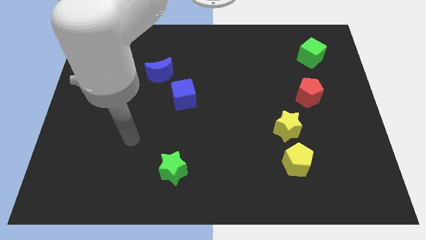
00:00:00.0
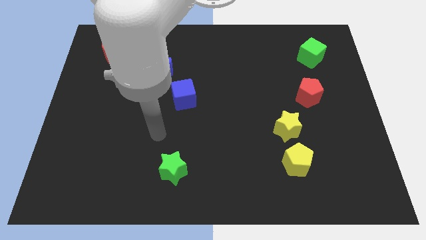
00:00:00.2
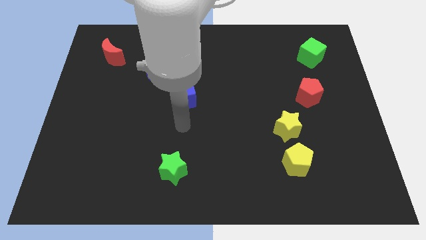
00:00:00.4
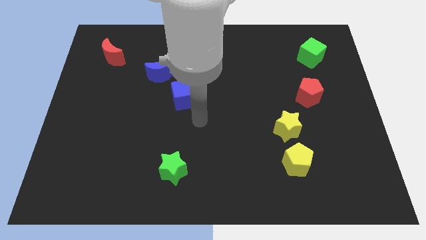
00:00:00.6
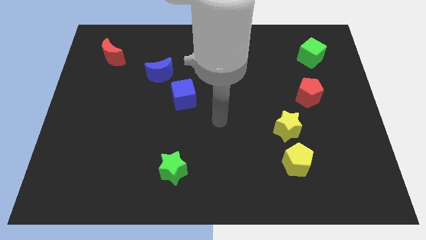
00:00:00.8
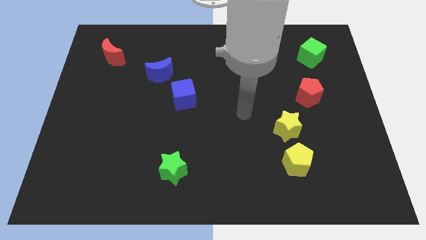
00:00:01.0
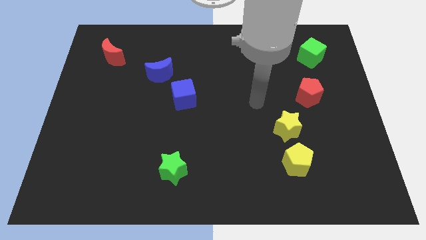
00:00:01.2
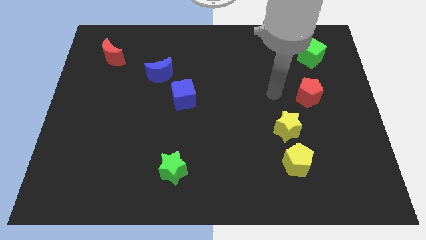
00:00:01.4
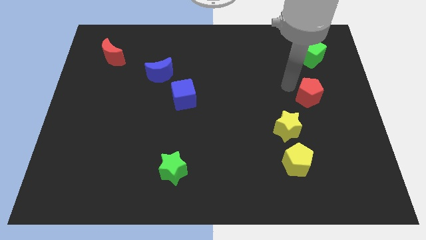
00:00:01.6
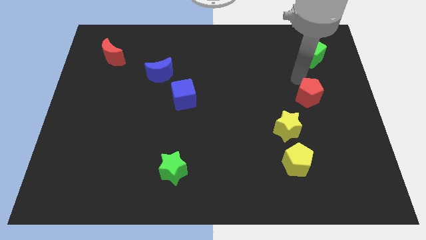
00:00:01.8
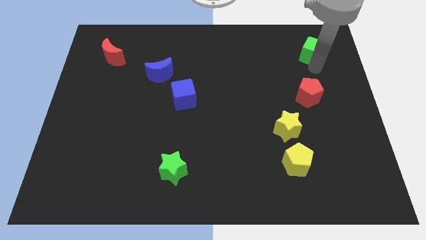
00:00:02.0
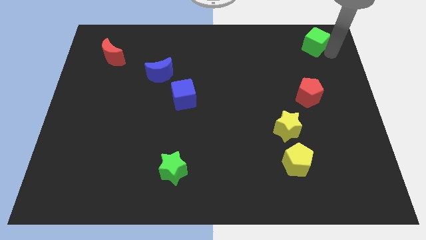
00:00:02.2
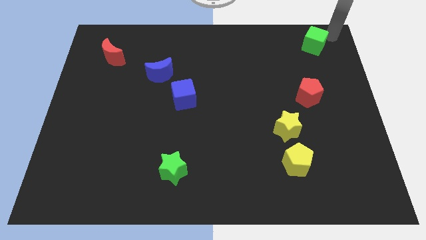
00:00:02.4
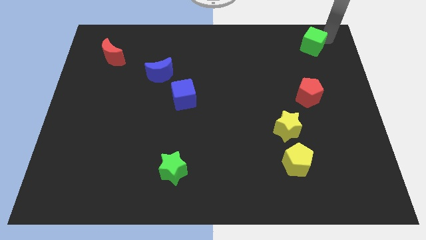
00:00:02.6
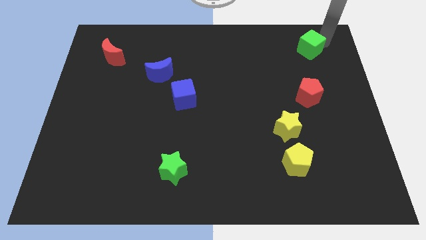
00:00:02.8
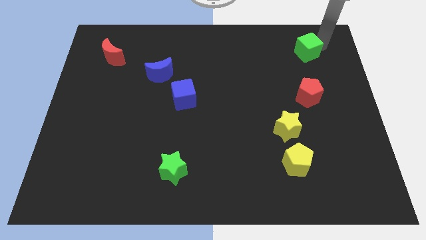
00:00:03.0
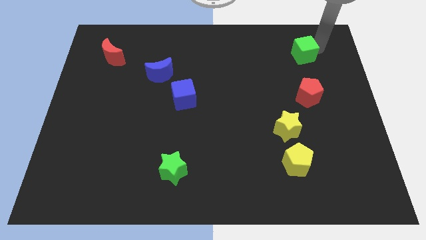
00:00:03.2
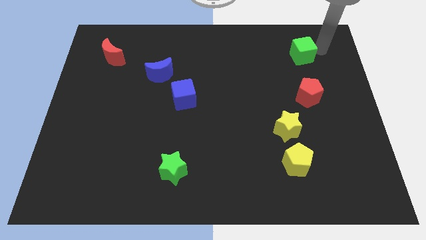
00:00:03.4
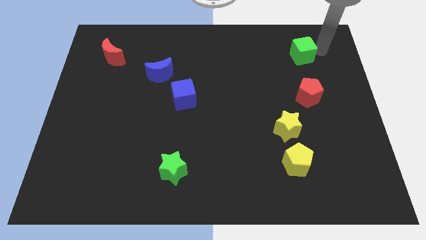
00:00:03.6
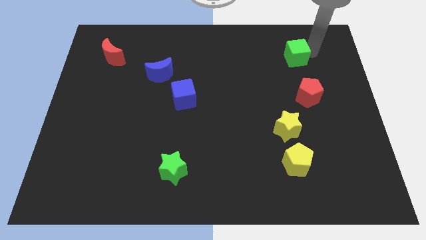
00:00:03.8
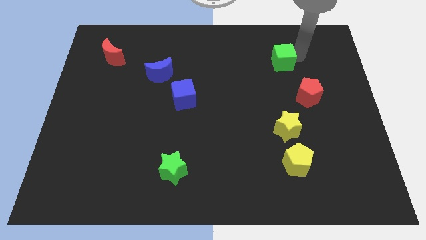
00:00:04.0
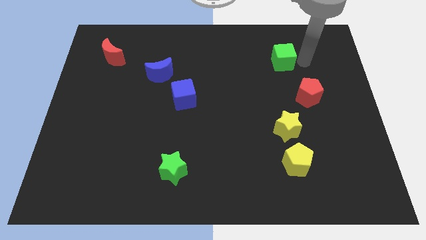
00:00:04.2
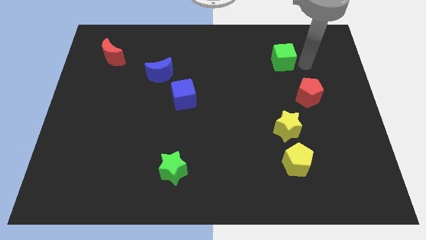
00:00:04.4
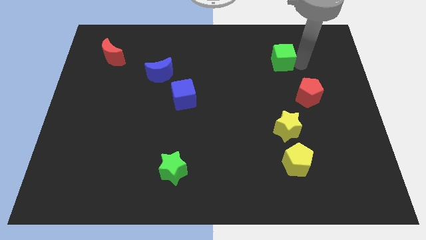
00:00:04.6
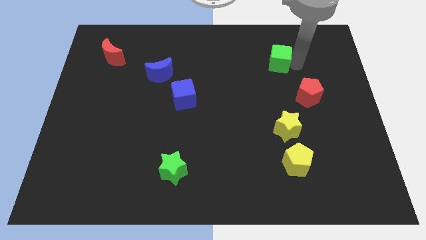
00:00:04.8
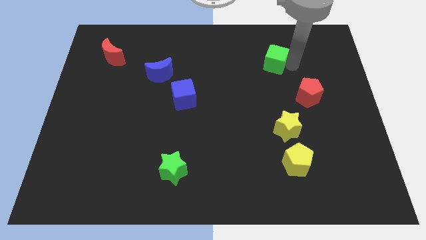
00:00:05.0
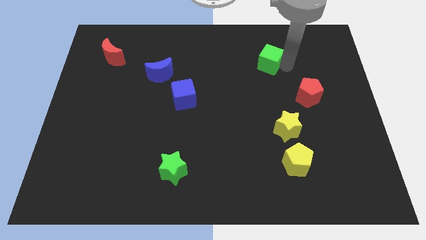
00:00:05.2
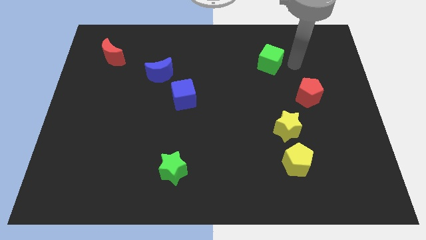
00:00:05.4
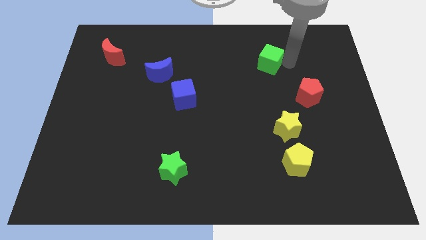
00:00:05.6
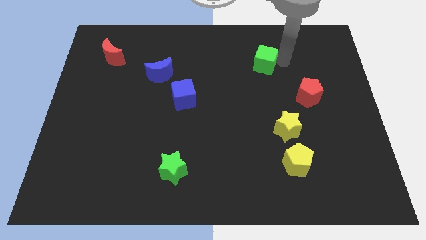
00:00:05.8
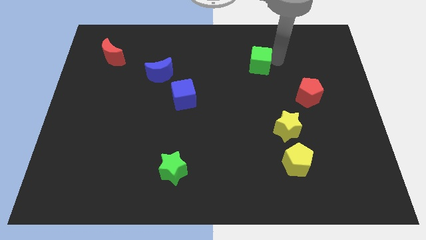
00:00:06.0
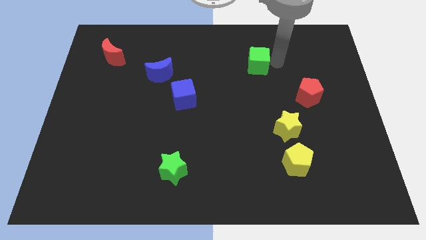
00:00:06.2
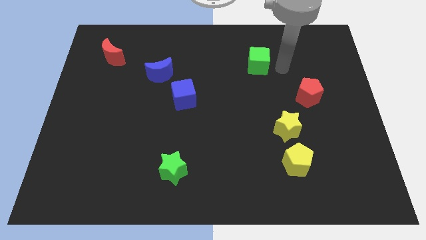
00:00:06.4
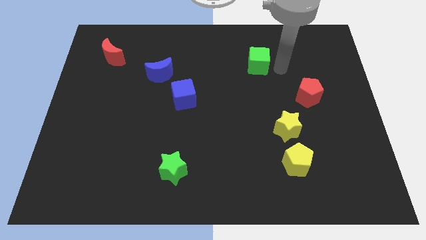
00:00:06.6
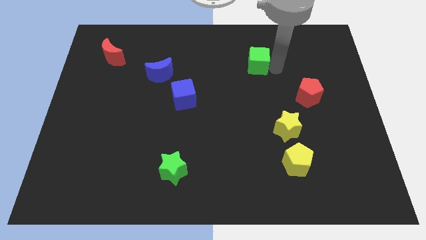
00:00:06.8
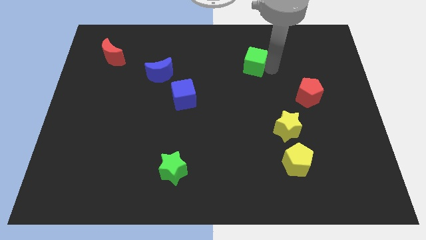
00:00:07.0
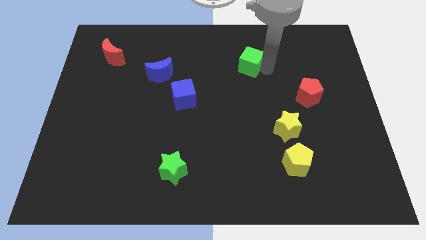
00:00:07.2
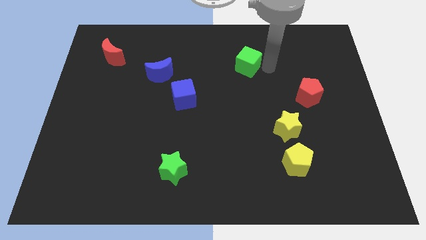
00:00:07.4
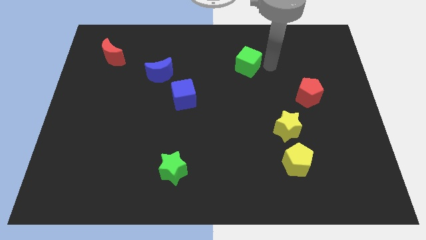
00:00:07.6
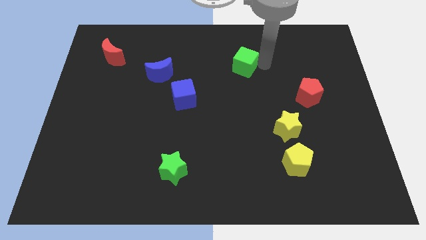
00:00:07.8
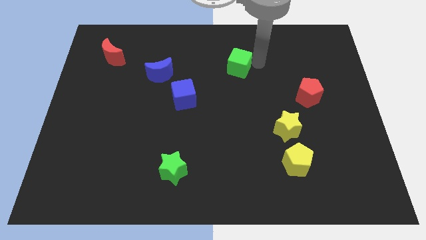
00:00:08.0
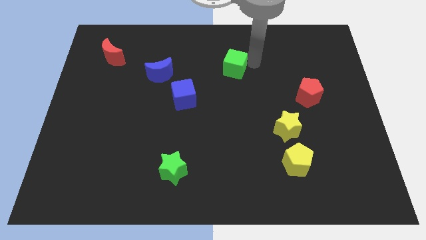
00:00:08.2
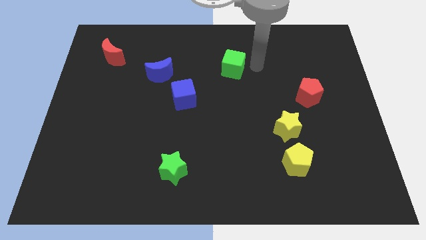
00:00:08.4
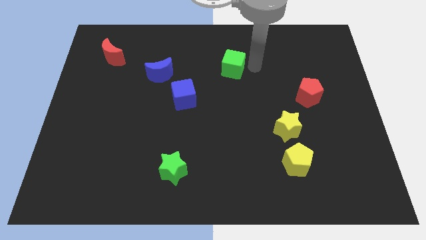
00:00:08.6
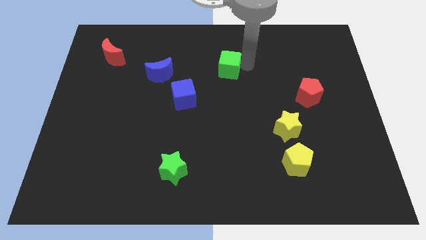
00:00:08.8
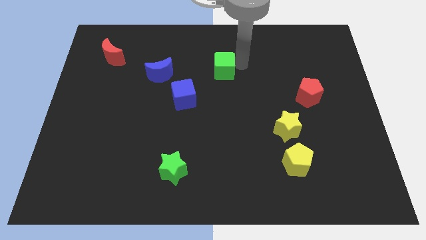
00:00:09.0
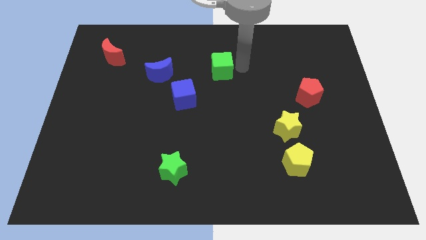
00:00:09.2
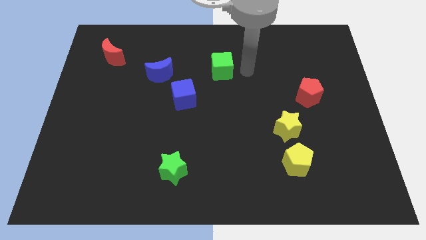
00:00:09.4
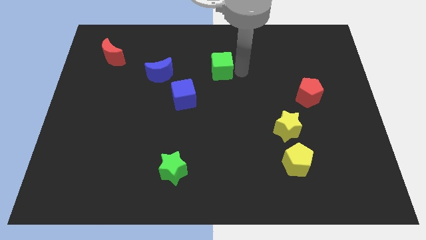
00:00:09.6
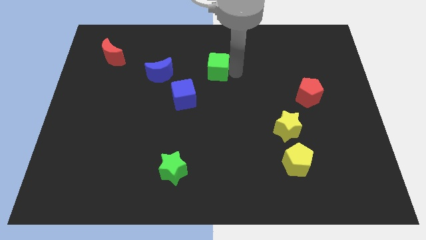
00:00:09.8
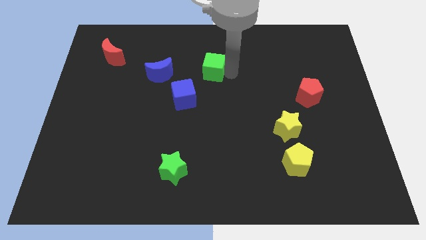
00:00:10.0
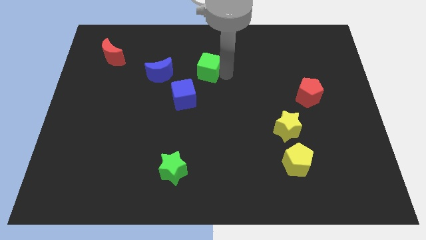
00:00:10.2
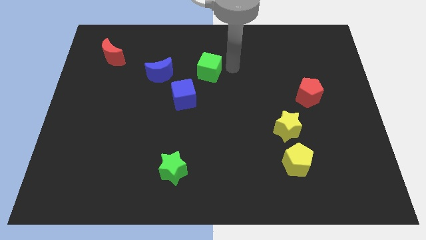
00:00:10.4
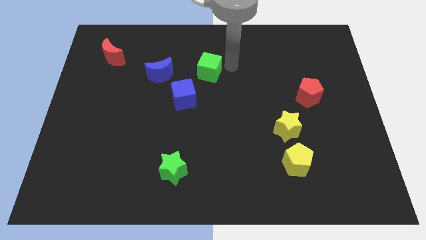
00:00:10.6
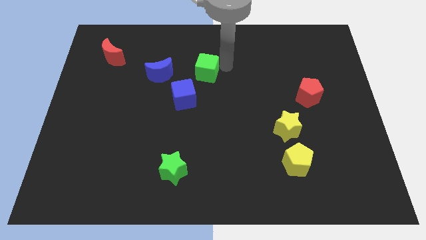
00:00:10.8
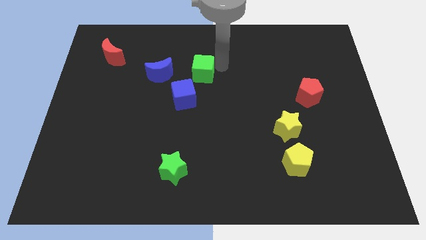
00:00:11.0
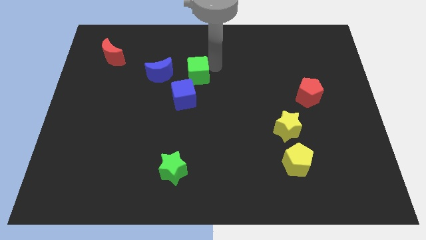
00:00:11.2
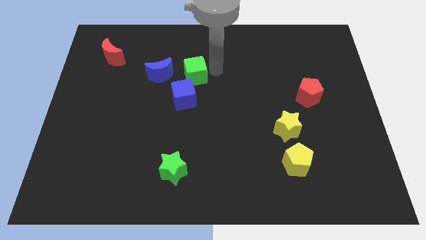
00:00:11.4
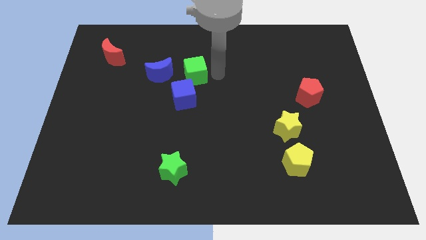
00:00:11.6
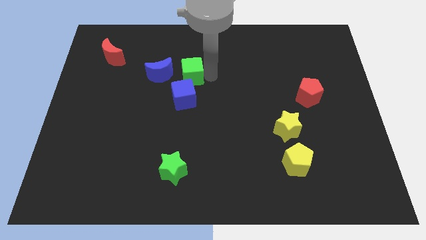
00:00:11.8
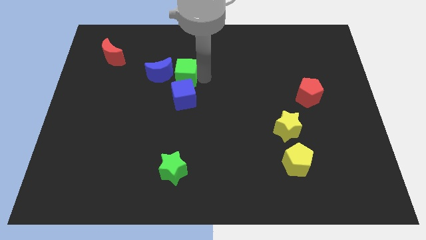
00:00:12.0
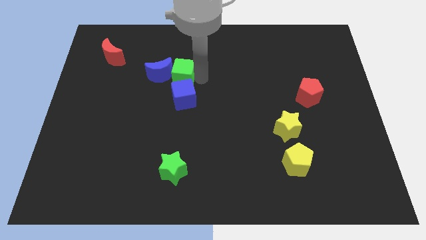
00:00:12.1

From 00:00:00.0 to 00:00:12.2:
push the green cube towards the blue moon

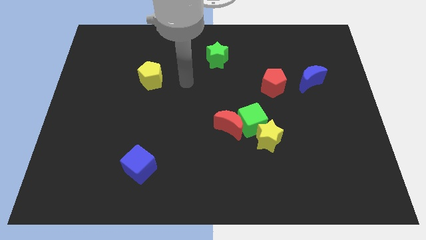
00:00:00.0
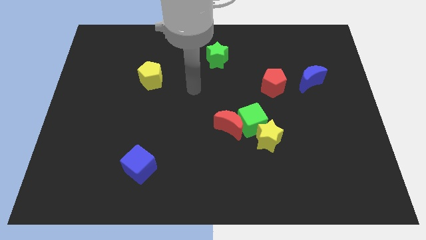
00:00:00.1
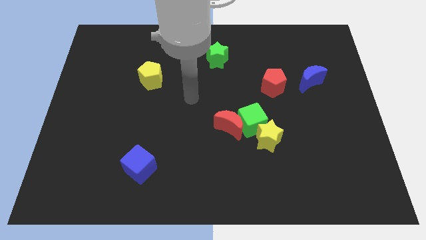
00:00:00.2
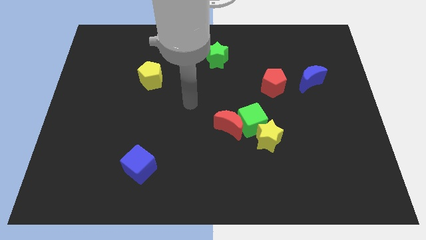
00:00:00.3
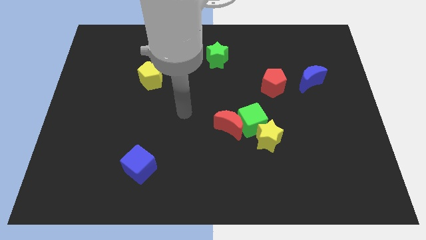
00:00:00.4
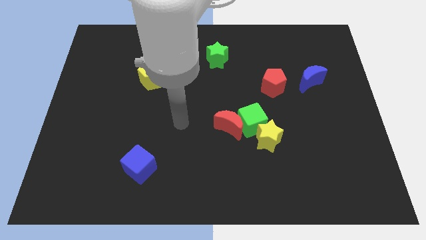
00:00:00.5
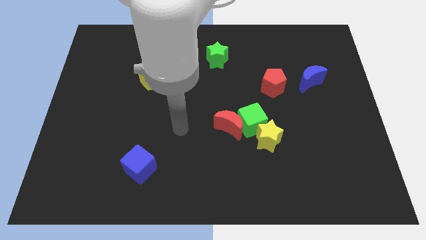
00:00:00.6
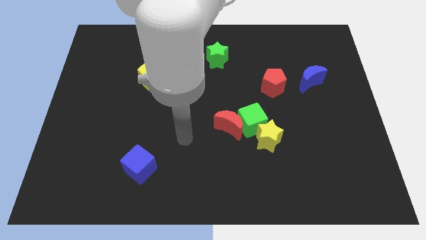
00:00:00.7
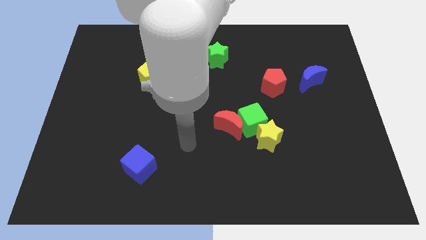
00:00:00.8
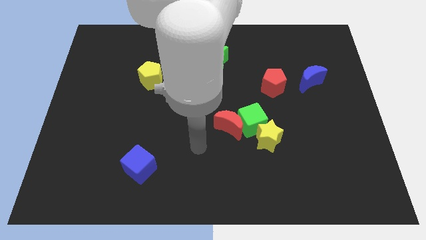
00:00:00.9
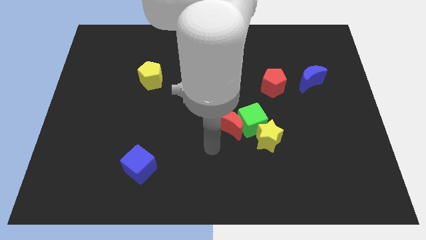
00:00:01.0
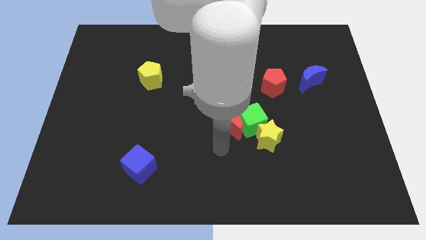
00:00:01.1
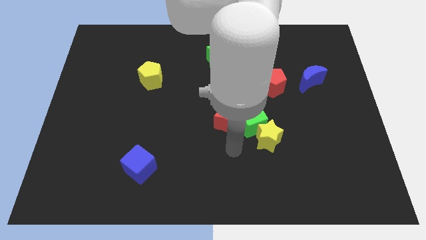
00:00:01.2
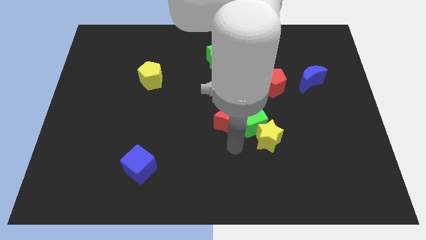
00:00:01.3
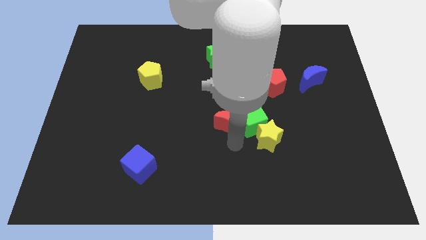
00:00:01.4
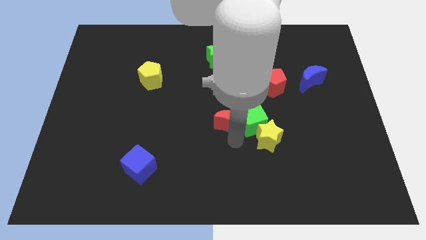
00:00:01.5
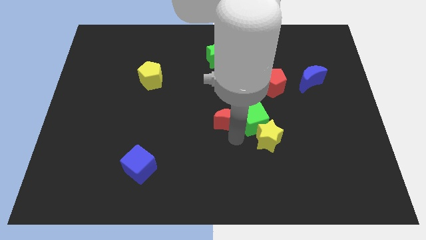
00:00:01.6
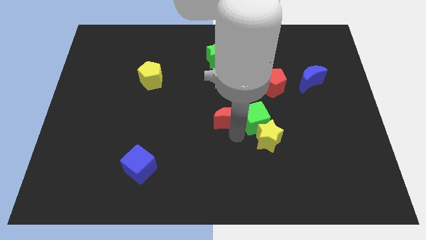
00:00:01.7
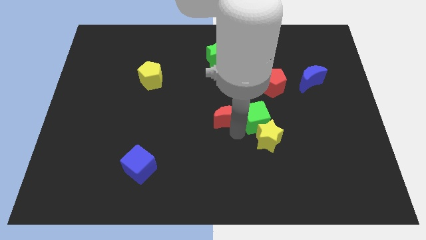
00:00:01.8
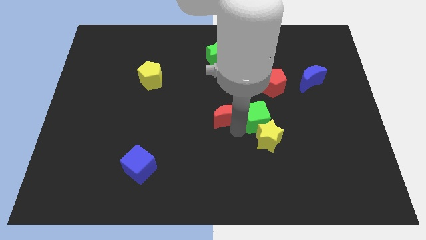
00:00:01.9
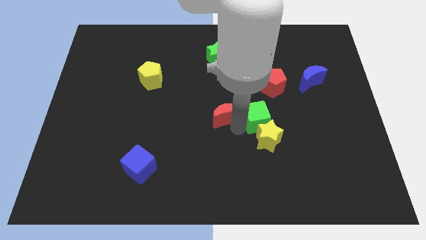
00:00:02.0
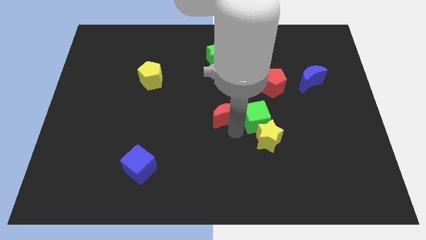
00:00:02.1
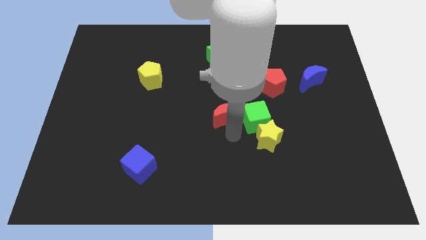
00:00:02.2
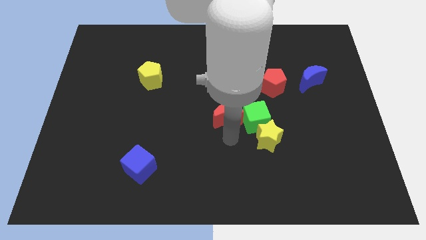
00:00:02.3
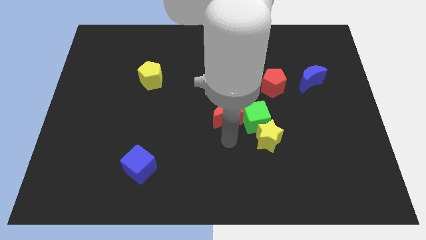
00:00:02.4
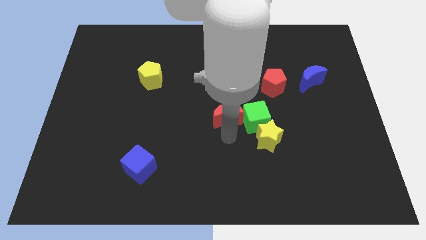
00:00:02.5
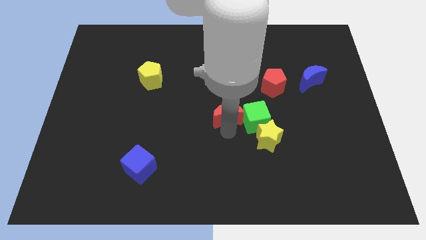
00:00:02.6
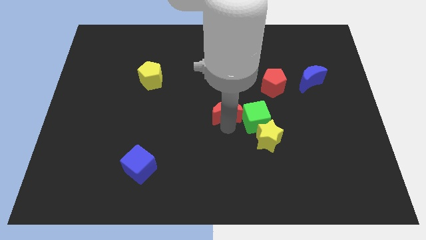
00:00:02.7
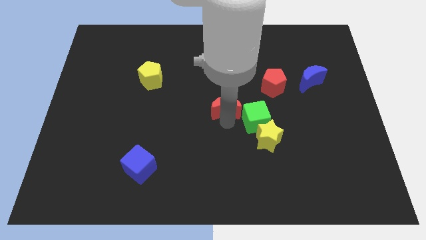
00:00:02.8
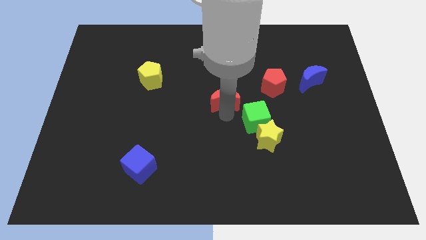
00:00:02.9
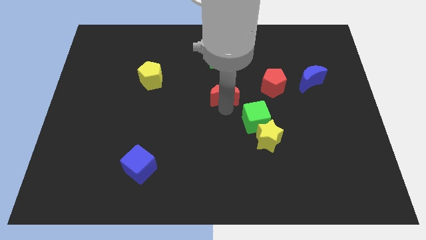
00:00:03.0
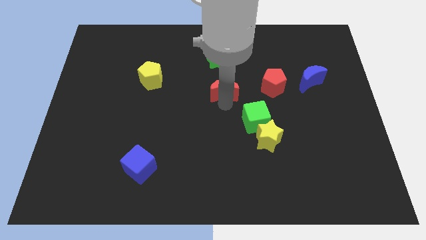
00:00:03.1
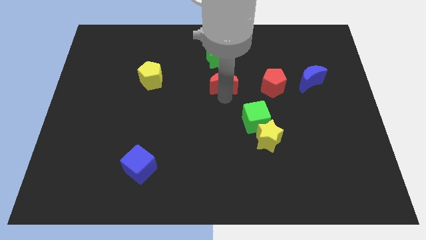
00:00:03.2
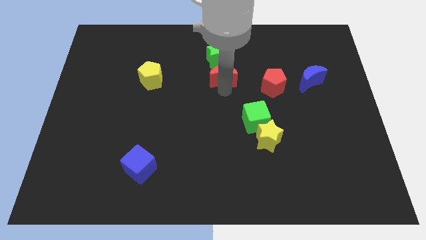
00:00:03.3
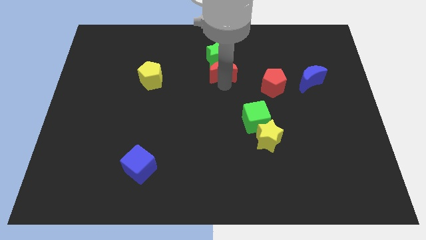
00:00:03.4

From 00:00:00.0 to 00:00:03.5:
slide the red moon towards the green star
